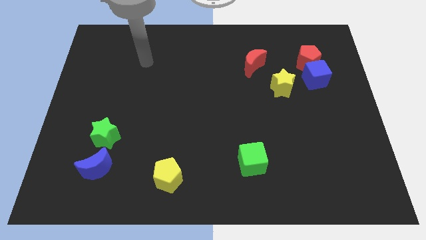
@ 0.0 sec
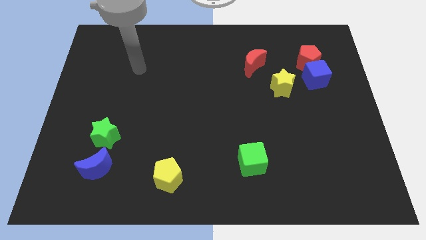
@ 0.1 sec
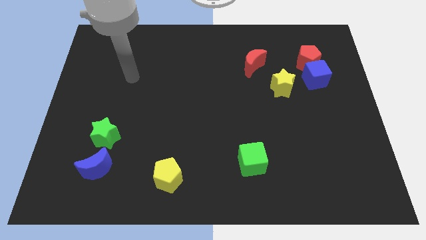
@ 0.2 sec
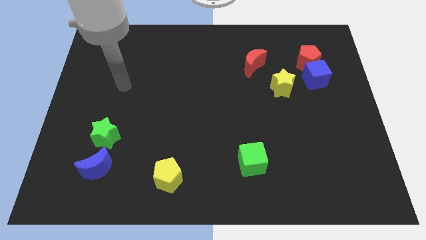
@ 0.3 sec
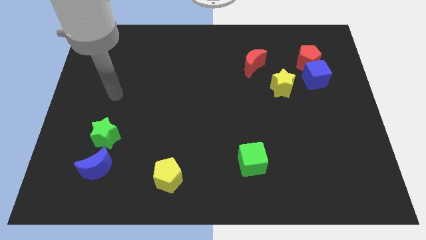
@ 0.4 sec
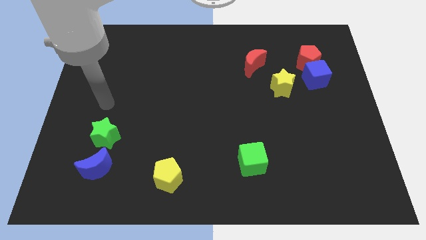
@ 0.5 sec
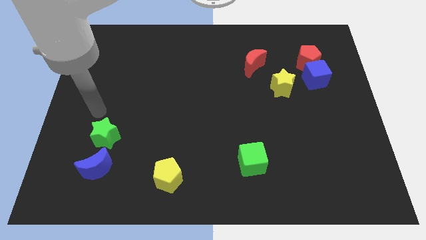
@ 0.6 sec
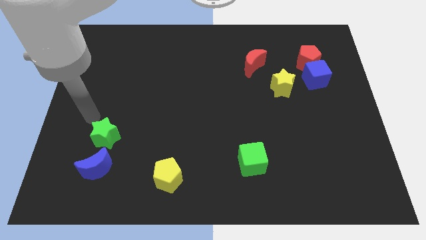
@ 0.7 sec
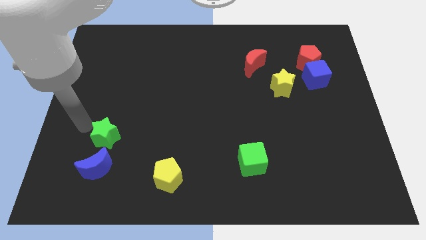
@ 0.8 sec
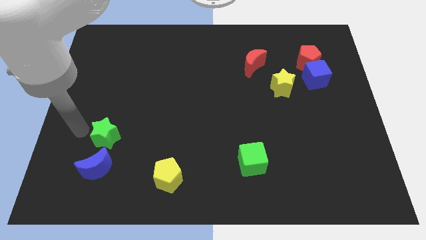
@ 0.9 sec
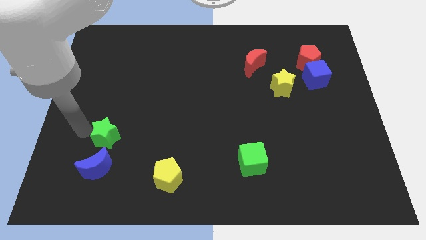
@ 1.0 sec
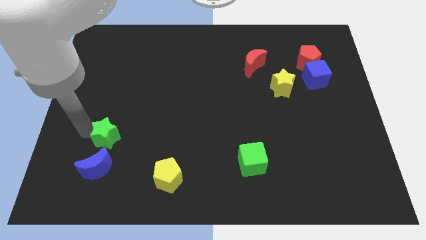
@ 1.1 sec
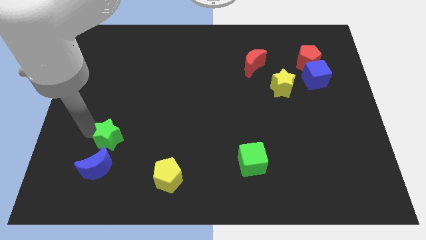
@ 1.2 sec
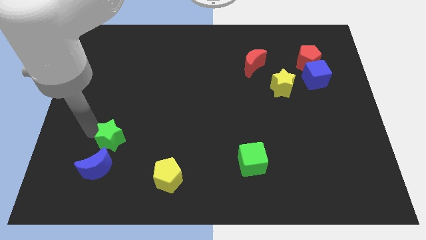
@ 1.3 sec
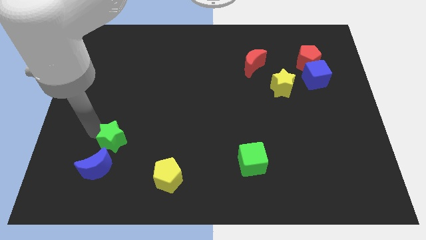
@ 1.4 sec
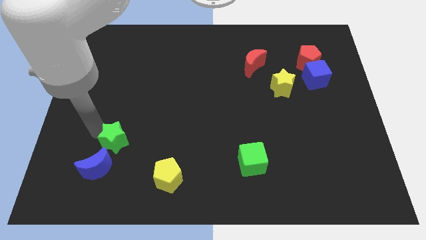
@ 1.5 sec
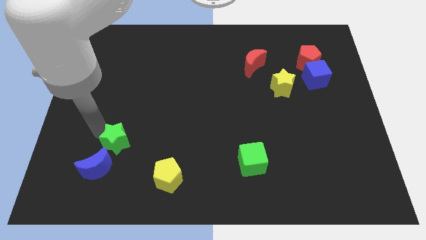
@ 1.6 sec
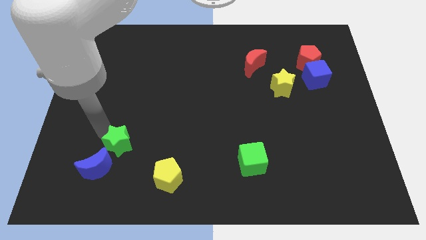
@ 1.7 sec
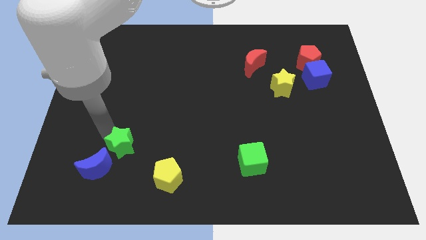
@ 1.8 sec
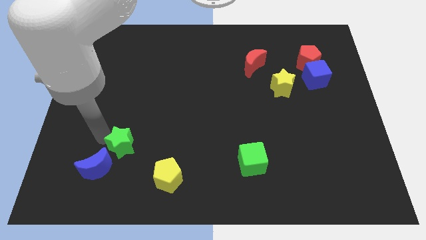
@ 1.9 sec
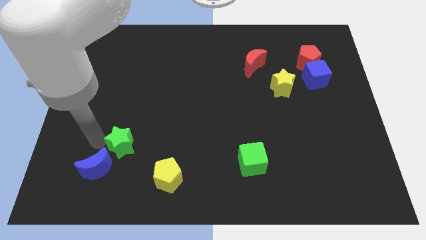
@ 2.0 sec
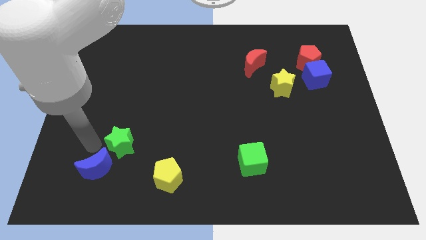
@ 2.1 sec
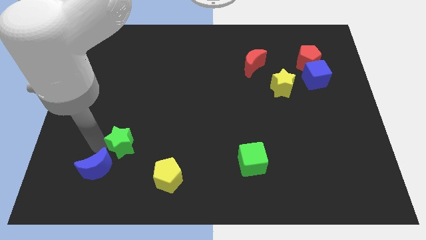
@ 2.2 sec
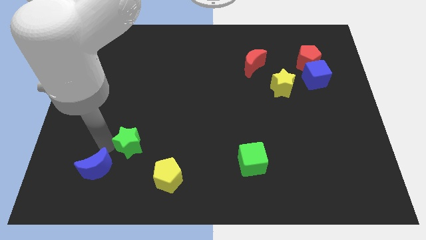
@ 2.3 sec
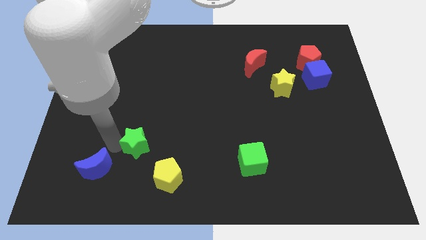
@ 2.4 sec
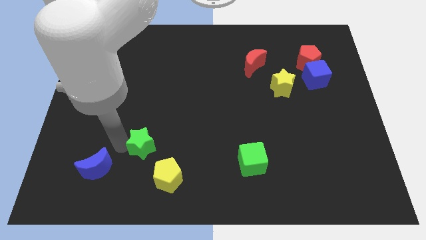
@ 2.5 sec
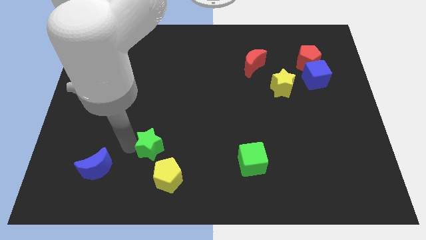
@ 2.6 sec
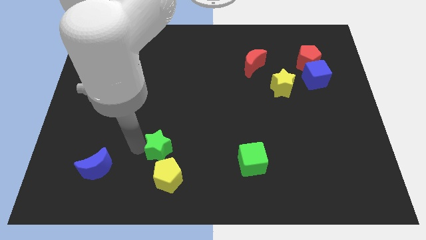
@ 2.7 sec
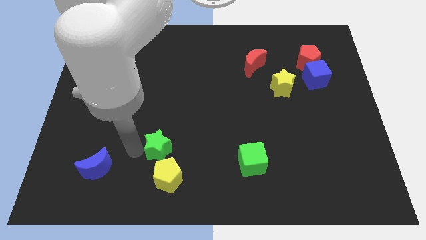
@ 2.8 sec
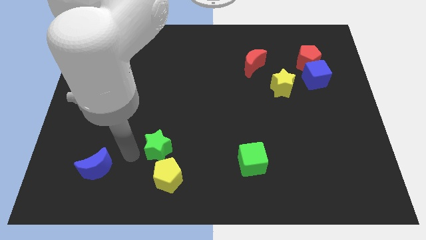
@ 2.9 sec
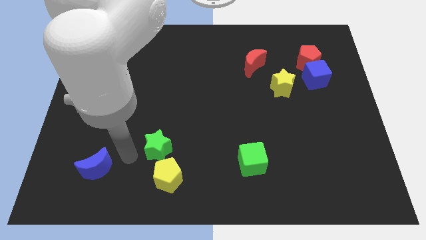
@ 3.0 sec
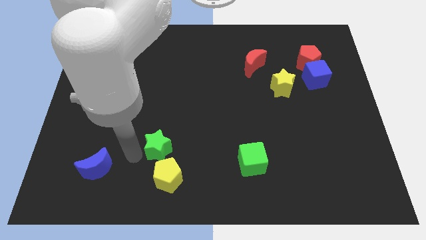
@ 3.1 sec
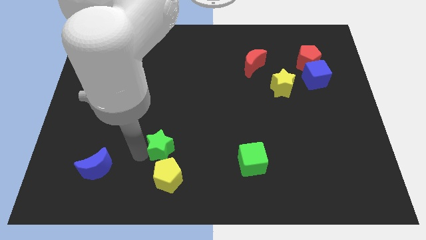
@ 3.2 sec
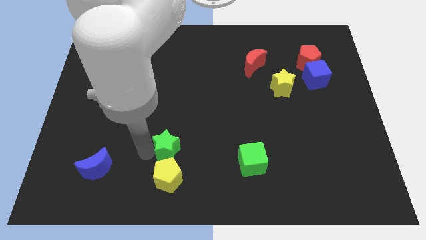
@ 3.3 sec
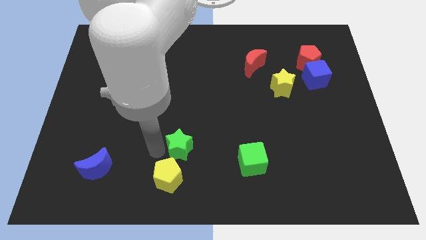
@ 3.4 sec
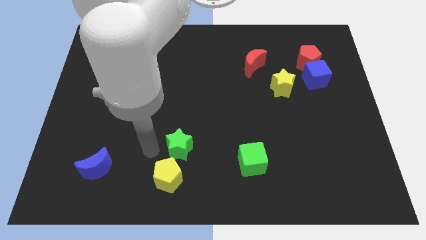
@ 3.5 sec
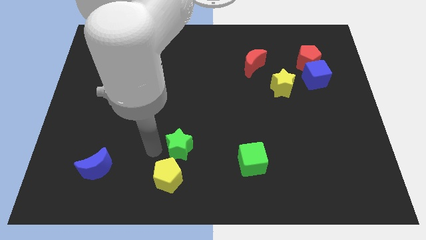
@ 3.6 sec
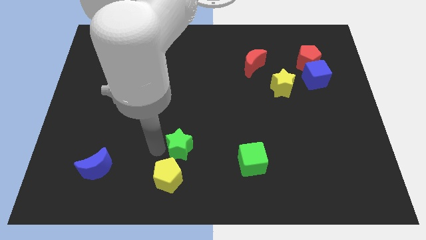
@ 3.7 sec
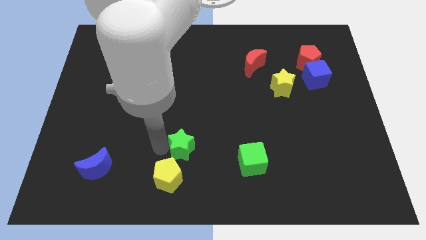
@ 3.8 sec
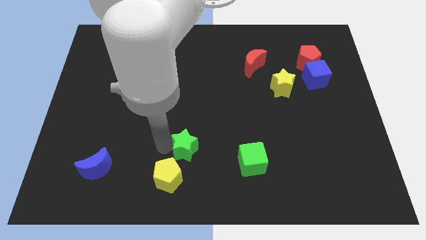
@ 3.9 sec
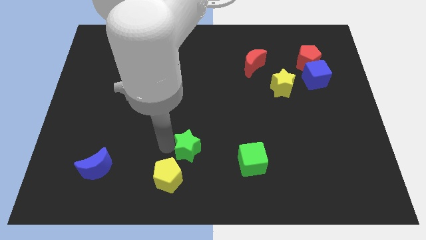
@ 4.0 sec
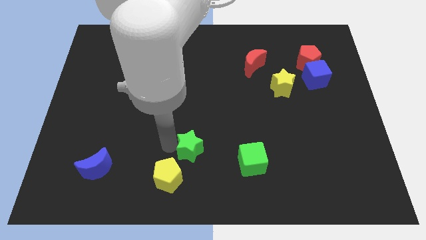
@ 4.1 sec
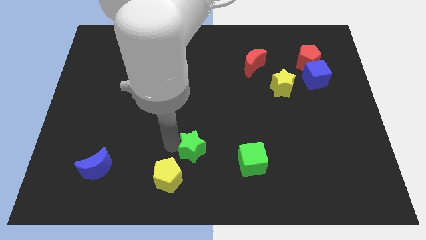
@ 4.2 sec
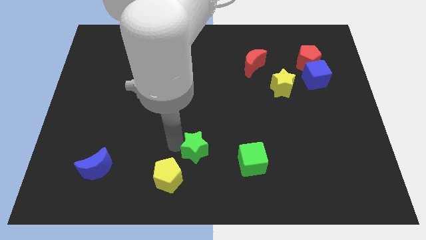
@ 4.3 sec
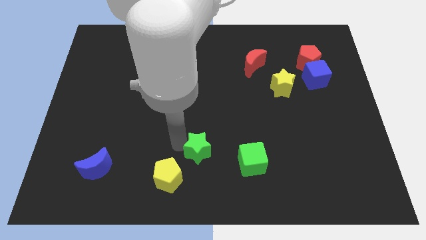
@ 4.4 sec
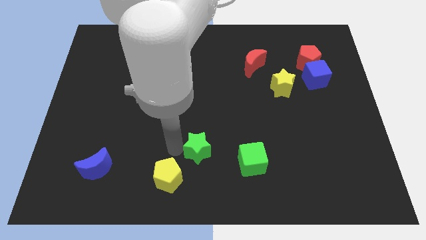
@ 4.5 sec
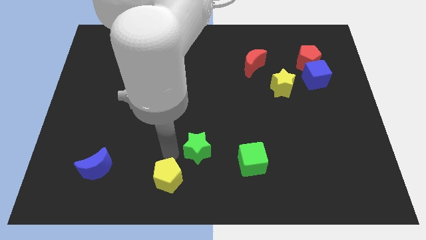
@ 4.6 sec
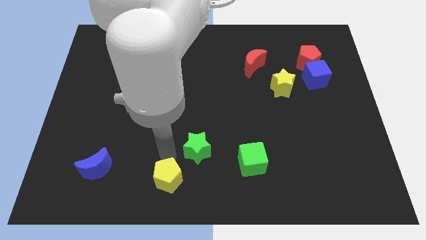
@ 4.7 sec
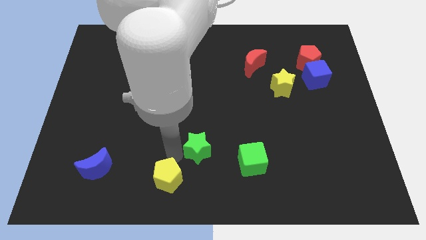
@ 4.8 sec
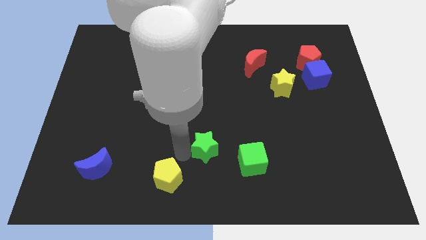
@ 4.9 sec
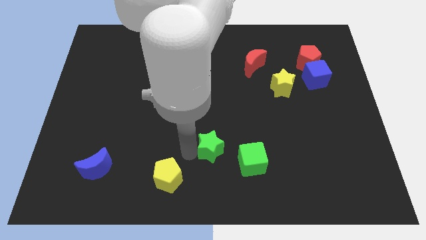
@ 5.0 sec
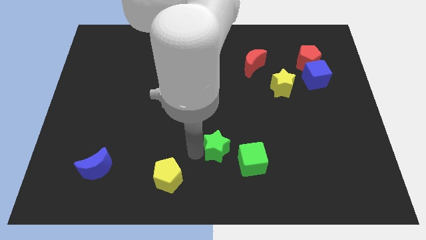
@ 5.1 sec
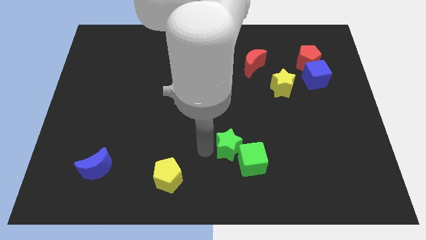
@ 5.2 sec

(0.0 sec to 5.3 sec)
push the green star next to the green cube

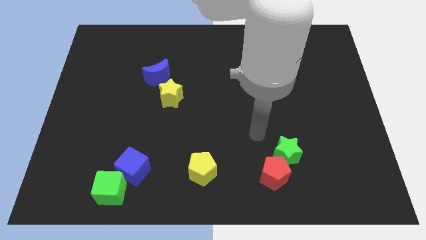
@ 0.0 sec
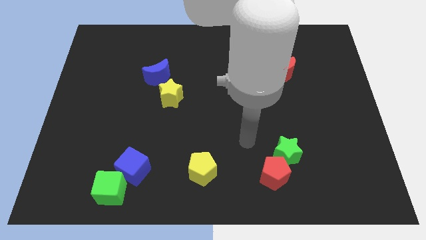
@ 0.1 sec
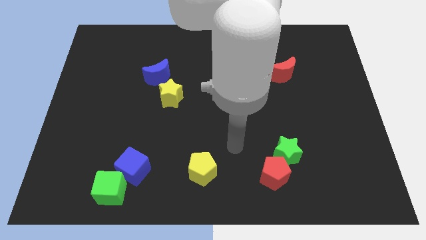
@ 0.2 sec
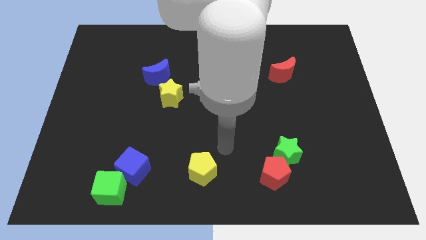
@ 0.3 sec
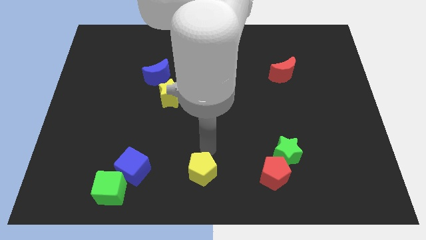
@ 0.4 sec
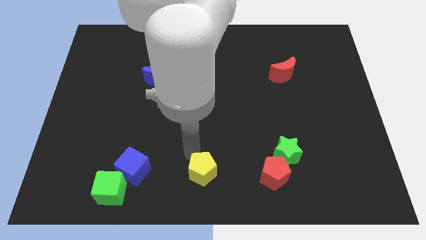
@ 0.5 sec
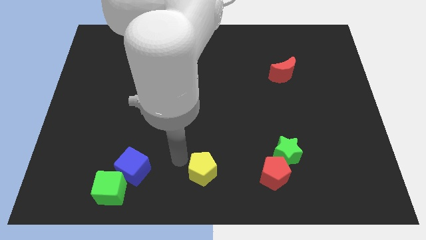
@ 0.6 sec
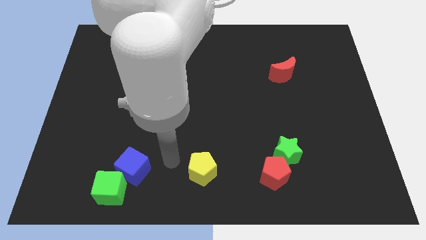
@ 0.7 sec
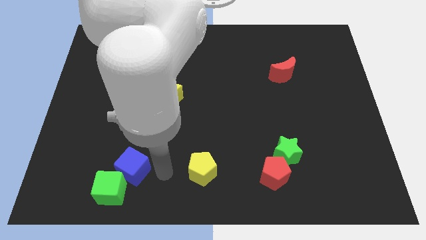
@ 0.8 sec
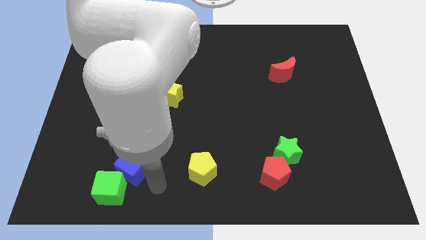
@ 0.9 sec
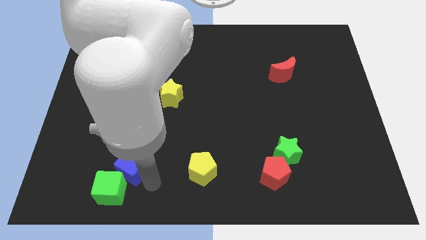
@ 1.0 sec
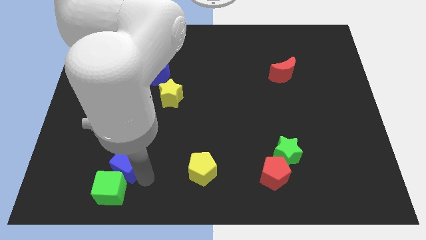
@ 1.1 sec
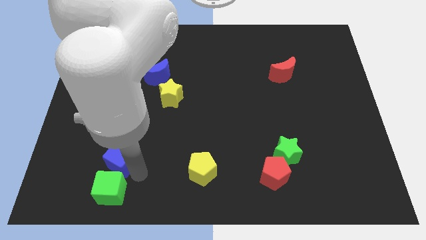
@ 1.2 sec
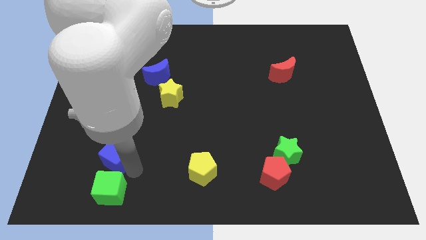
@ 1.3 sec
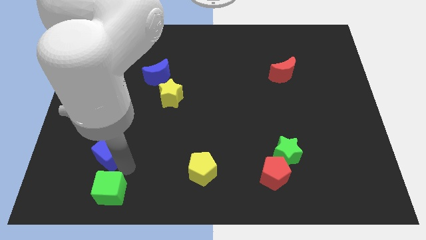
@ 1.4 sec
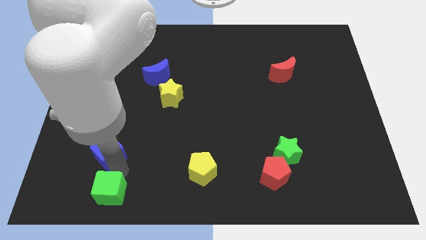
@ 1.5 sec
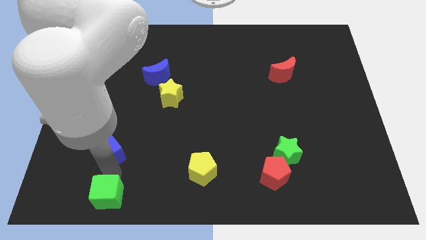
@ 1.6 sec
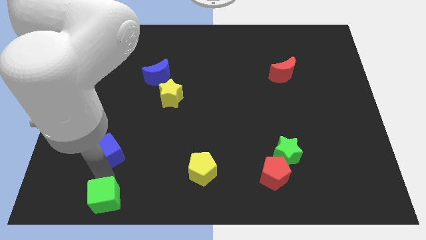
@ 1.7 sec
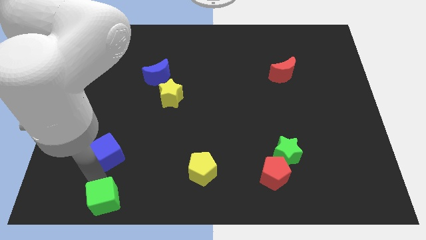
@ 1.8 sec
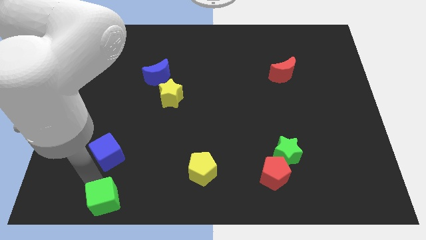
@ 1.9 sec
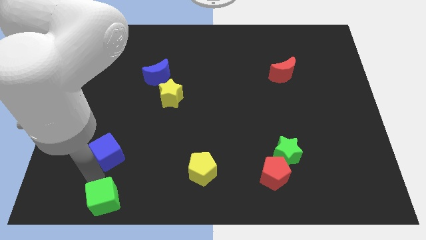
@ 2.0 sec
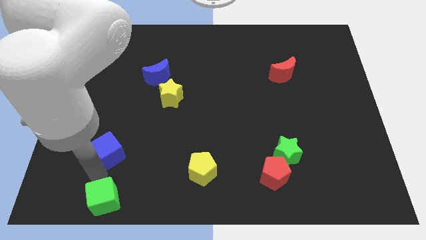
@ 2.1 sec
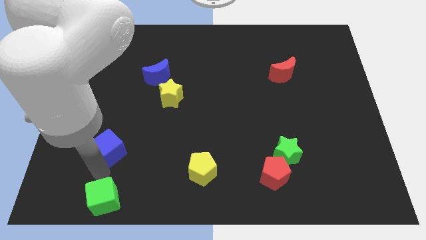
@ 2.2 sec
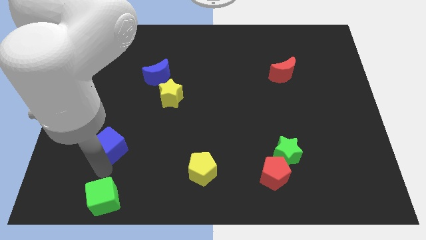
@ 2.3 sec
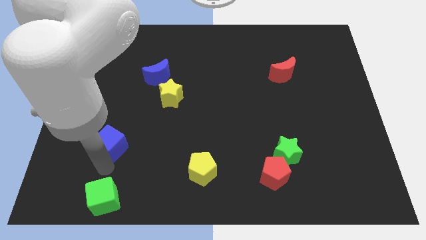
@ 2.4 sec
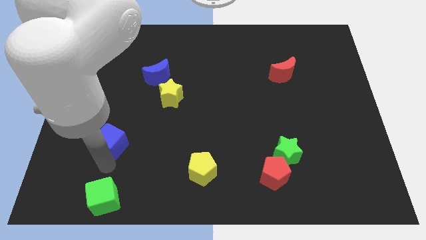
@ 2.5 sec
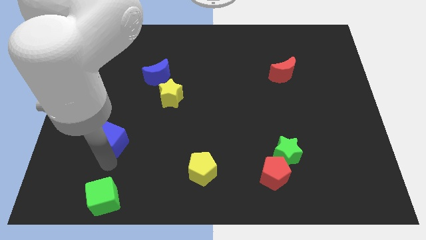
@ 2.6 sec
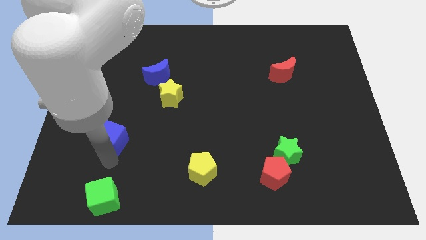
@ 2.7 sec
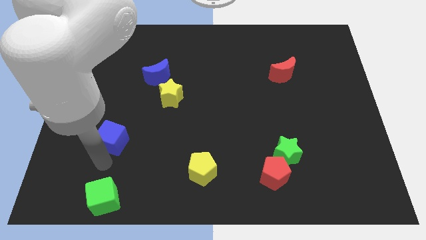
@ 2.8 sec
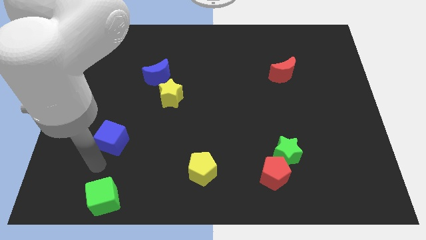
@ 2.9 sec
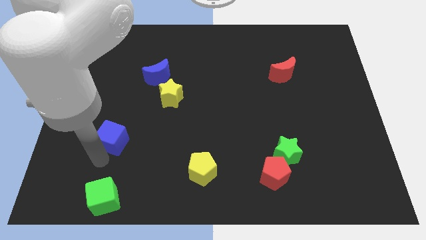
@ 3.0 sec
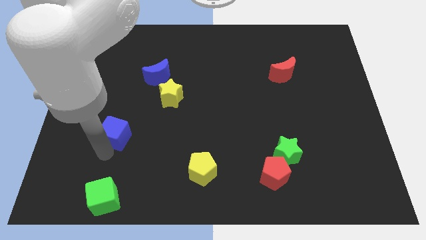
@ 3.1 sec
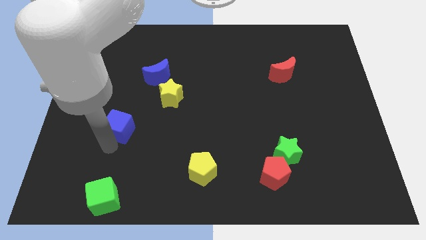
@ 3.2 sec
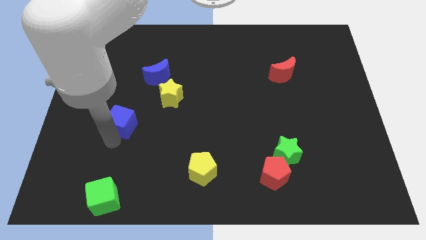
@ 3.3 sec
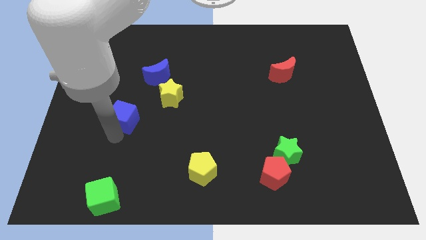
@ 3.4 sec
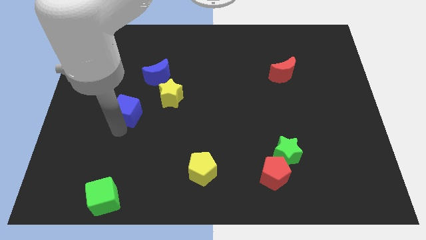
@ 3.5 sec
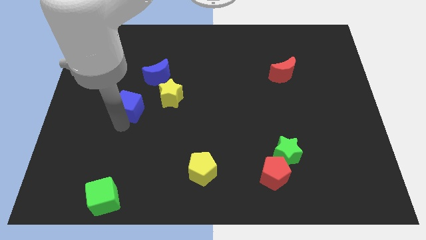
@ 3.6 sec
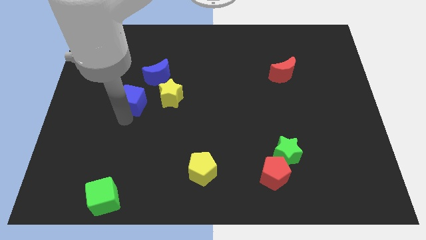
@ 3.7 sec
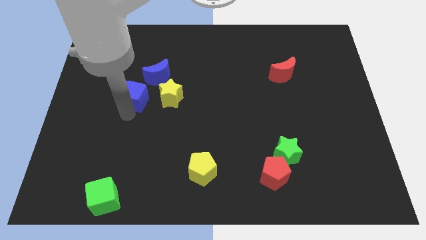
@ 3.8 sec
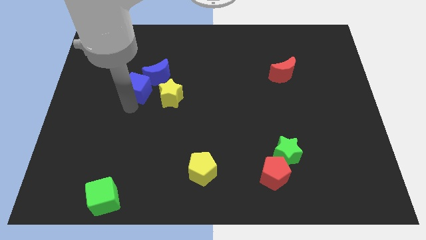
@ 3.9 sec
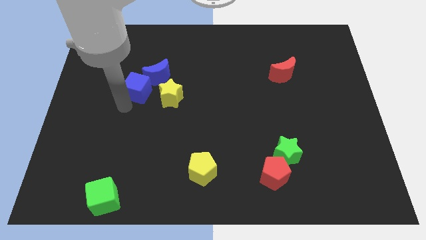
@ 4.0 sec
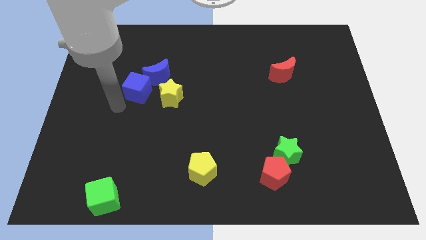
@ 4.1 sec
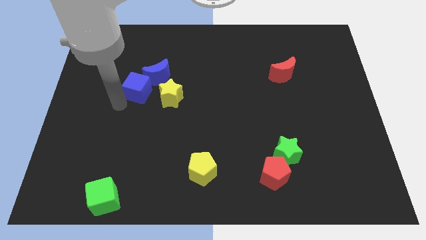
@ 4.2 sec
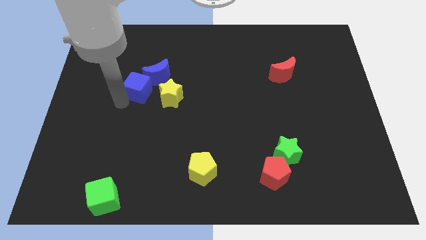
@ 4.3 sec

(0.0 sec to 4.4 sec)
put the blue cube close to the blue moon
